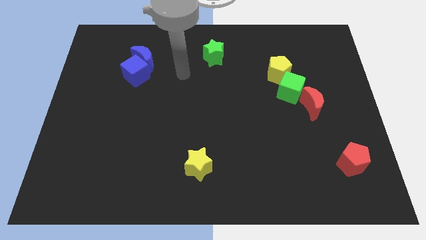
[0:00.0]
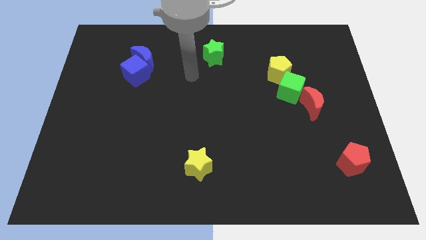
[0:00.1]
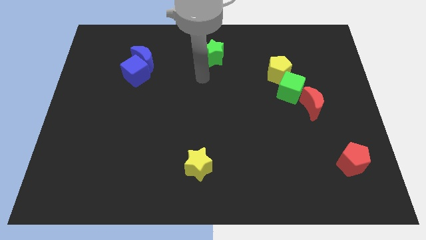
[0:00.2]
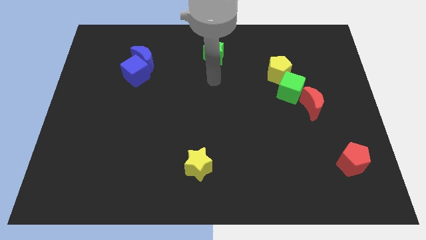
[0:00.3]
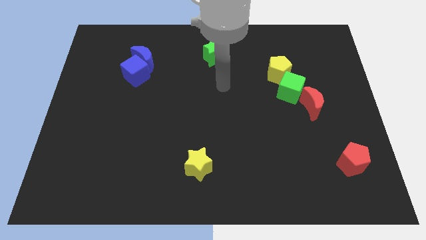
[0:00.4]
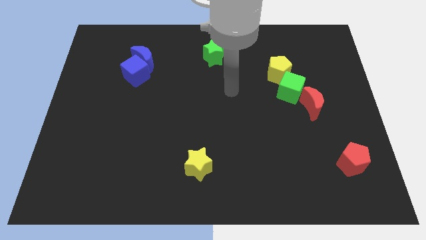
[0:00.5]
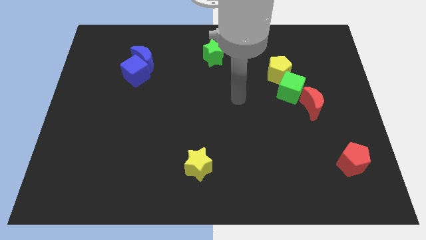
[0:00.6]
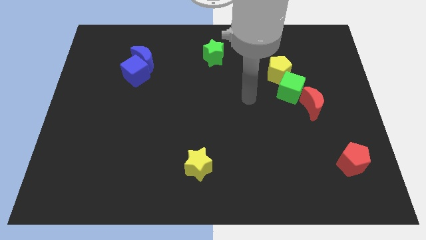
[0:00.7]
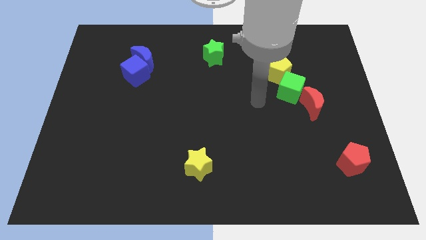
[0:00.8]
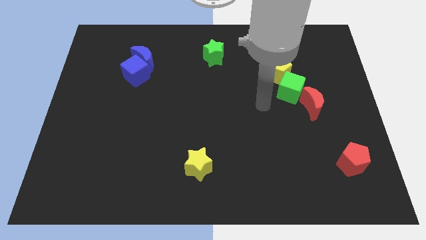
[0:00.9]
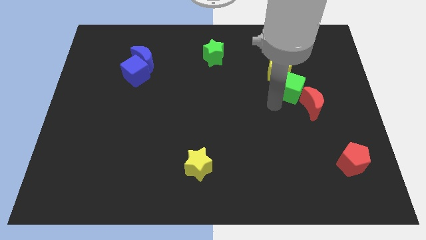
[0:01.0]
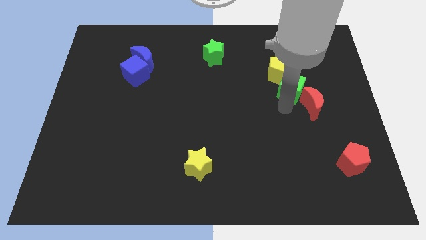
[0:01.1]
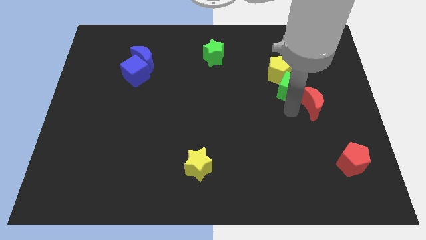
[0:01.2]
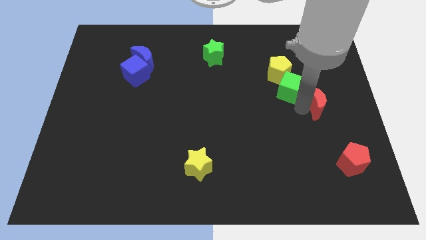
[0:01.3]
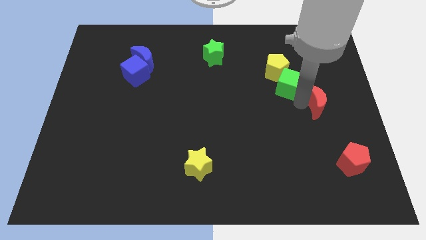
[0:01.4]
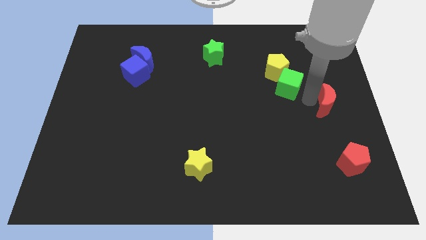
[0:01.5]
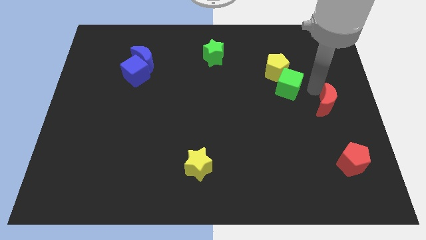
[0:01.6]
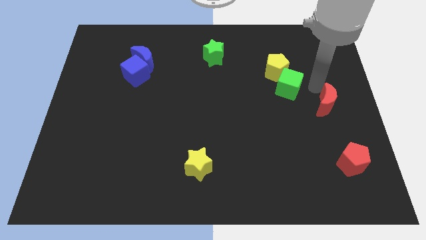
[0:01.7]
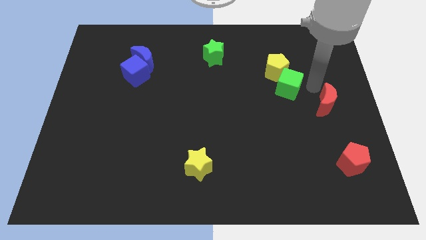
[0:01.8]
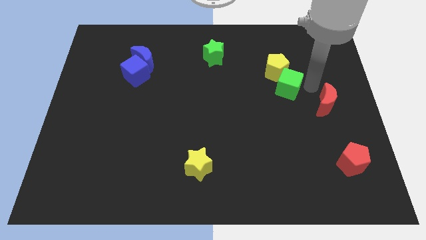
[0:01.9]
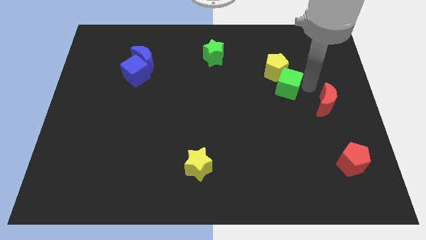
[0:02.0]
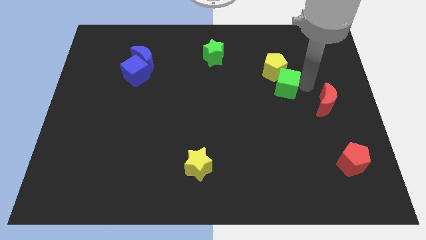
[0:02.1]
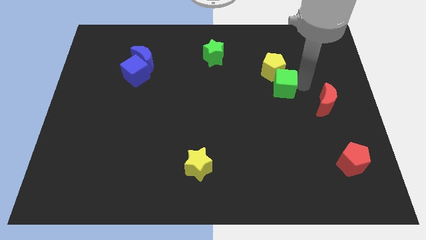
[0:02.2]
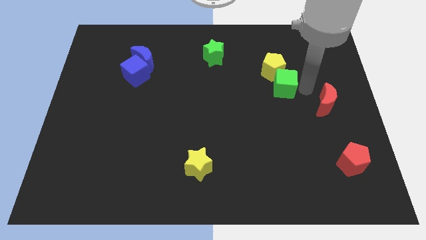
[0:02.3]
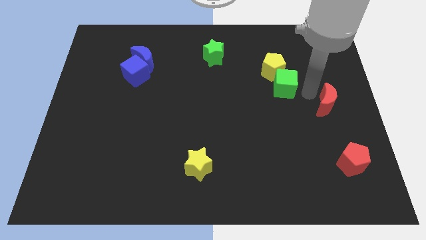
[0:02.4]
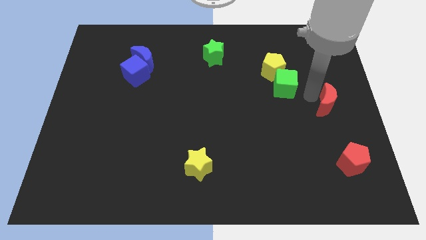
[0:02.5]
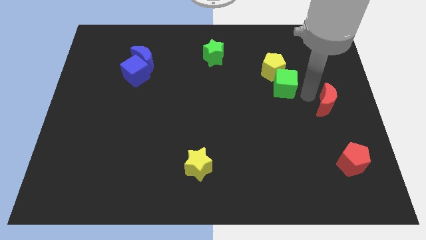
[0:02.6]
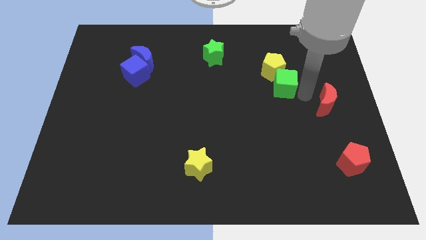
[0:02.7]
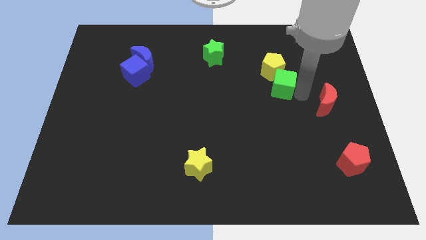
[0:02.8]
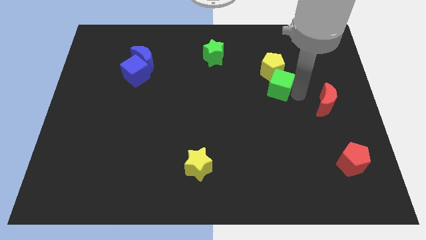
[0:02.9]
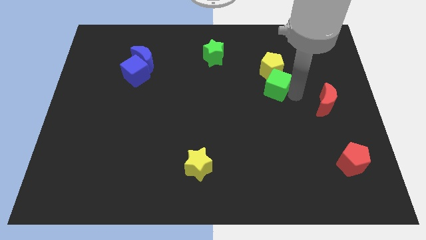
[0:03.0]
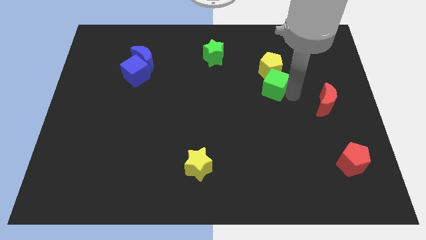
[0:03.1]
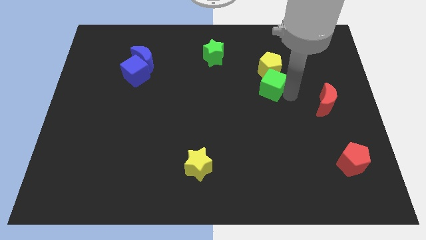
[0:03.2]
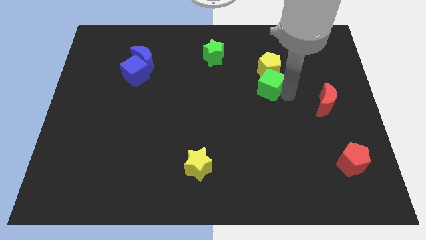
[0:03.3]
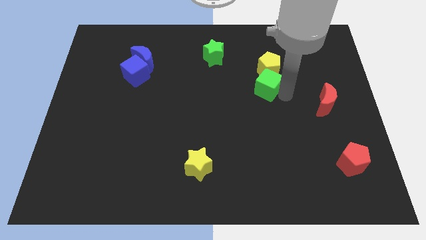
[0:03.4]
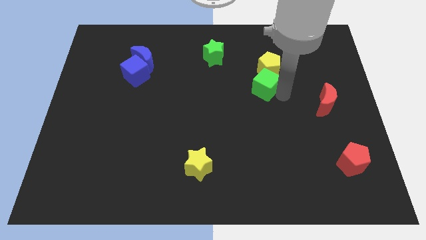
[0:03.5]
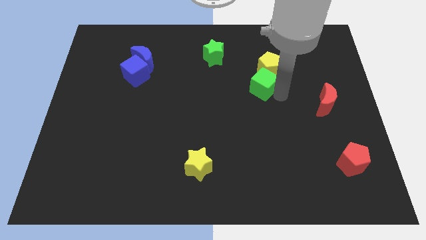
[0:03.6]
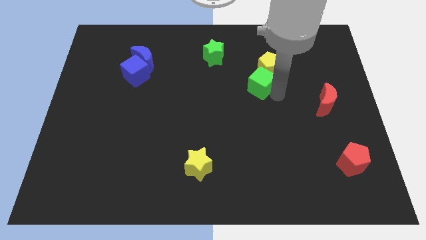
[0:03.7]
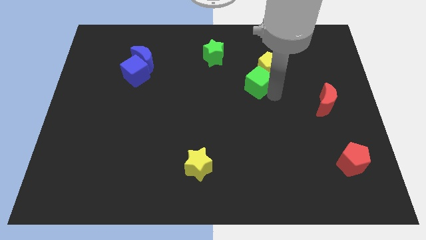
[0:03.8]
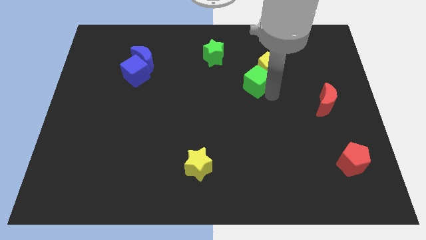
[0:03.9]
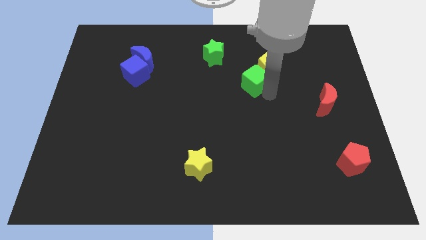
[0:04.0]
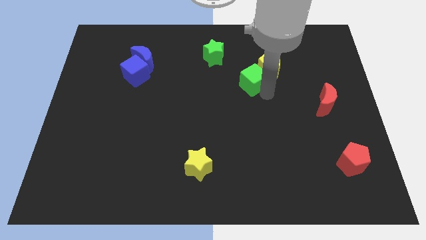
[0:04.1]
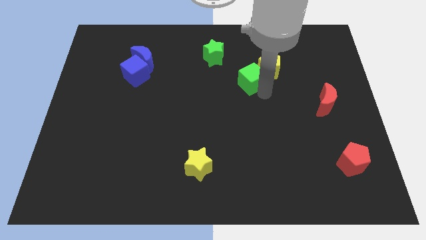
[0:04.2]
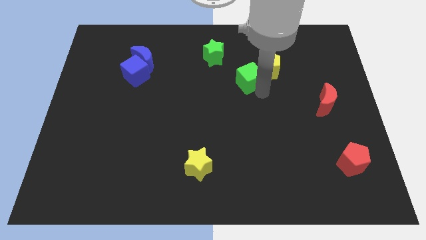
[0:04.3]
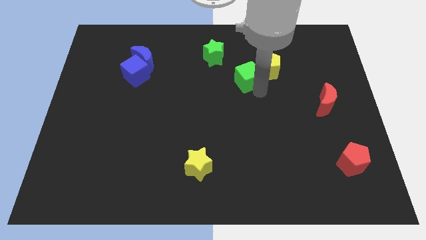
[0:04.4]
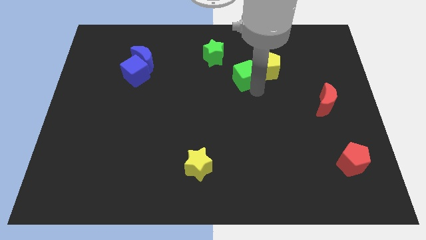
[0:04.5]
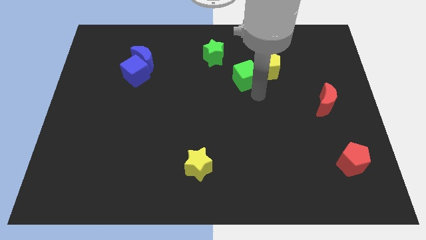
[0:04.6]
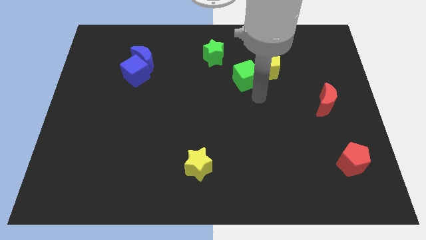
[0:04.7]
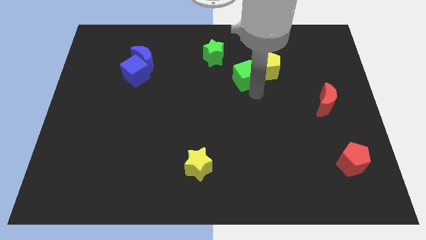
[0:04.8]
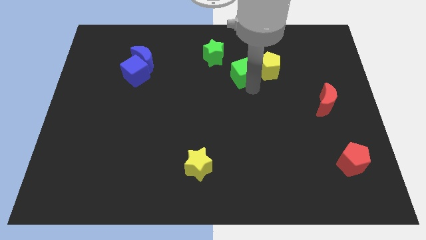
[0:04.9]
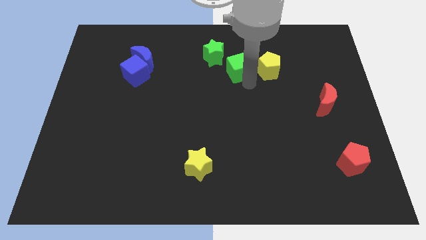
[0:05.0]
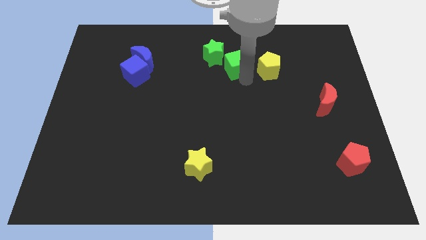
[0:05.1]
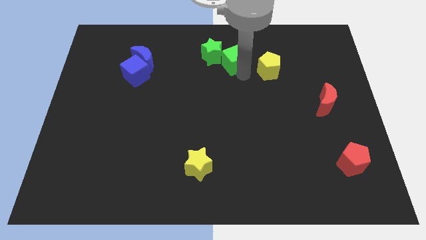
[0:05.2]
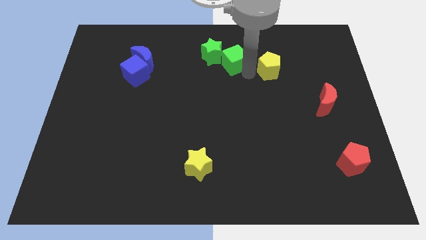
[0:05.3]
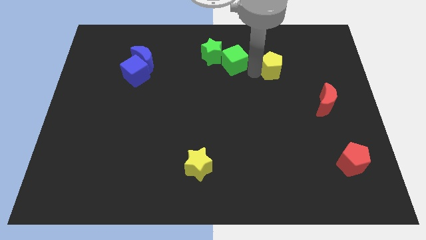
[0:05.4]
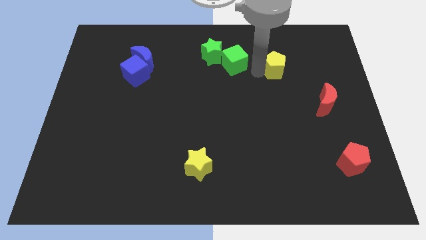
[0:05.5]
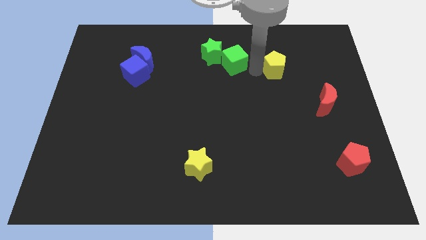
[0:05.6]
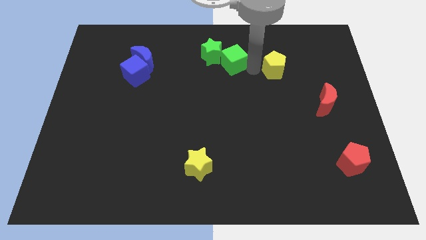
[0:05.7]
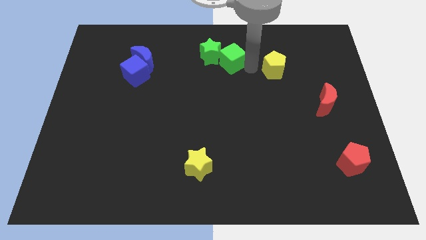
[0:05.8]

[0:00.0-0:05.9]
slide the green cube close to the green star

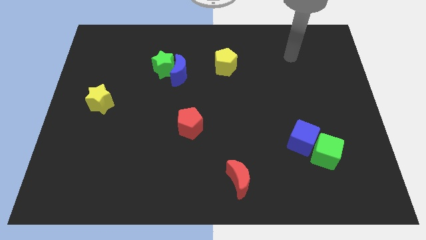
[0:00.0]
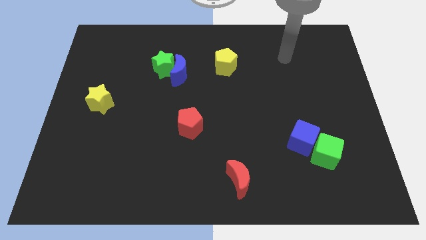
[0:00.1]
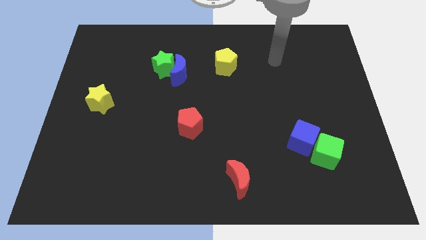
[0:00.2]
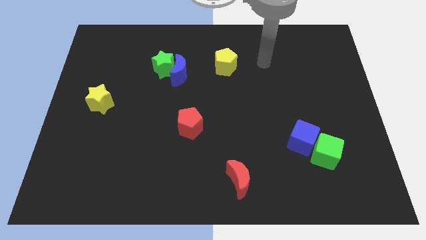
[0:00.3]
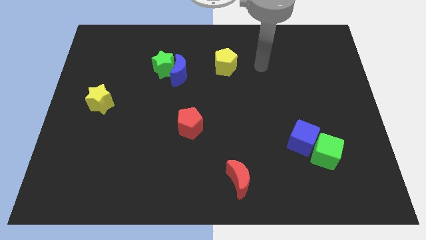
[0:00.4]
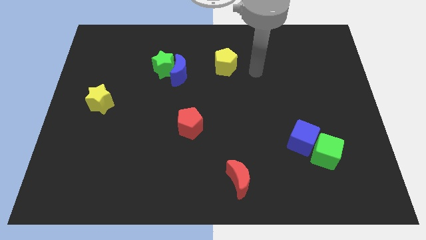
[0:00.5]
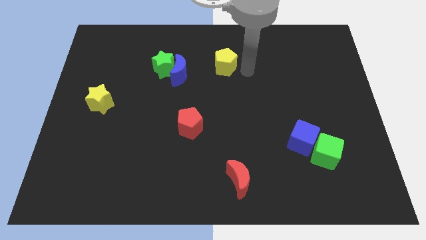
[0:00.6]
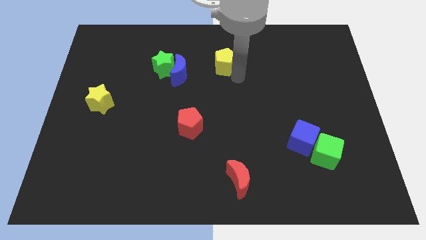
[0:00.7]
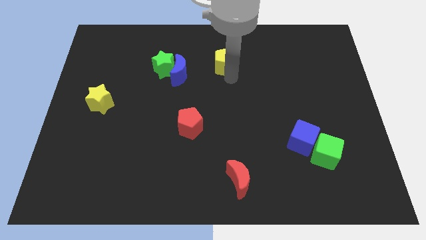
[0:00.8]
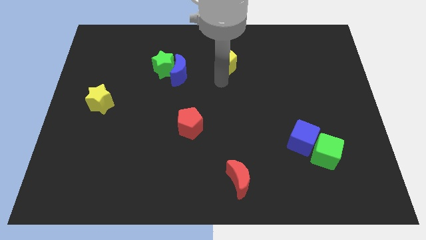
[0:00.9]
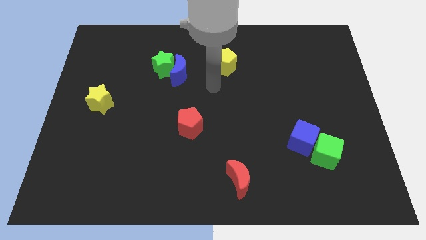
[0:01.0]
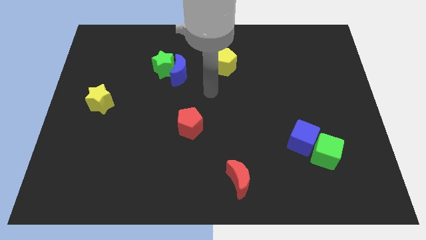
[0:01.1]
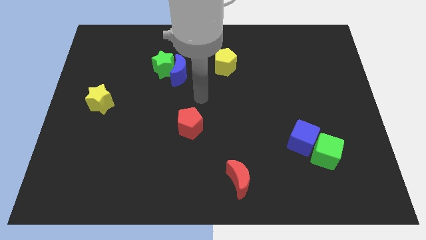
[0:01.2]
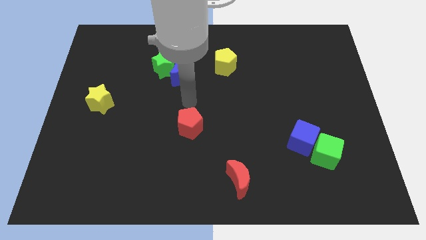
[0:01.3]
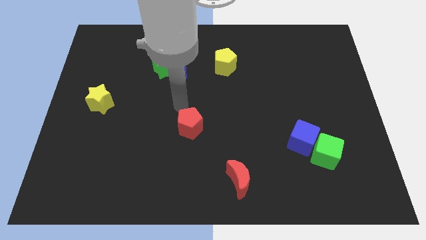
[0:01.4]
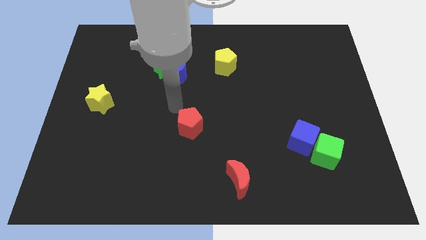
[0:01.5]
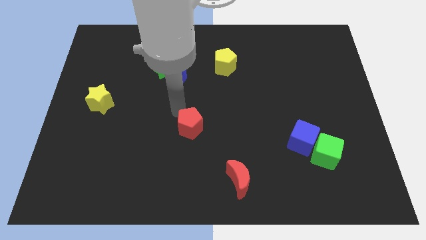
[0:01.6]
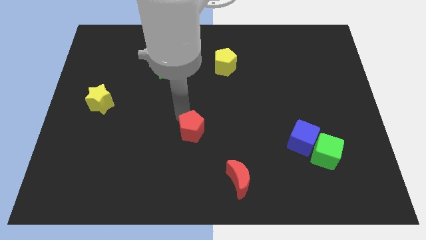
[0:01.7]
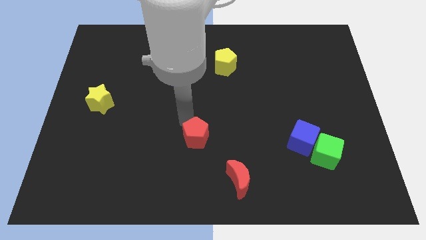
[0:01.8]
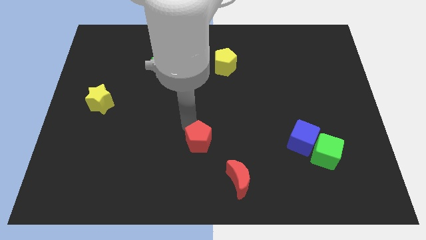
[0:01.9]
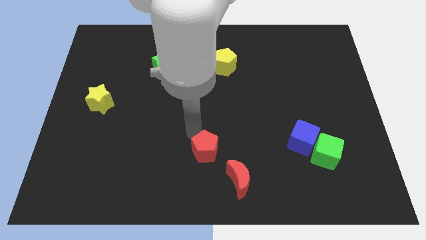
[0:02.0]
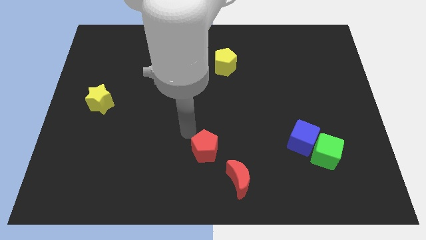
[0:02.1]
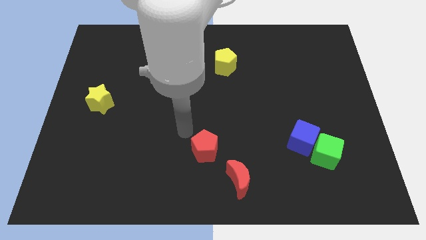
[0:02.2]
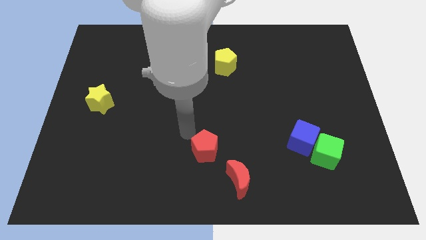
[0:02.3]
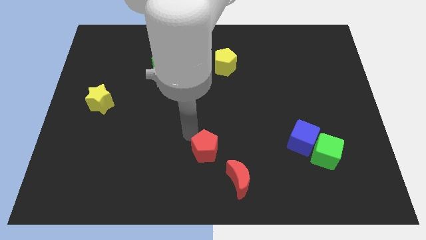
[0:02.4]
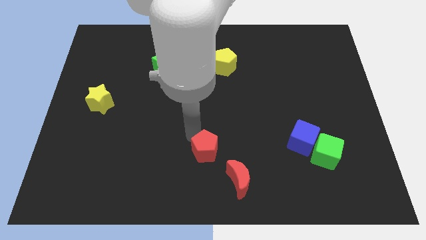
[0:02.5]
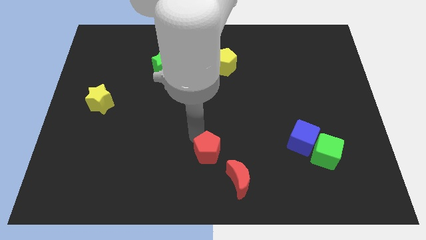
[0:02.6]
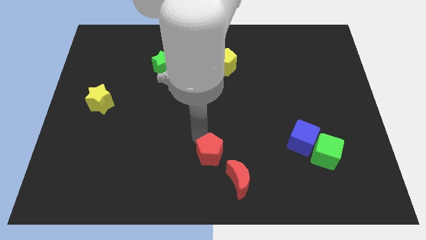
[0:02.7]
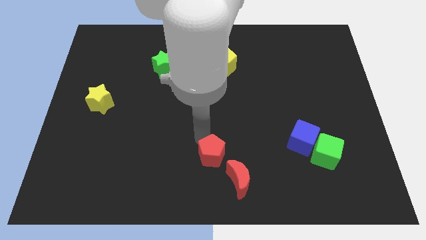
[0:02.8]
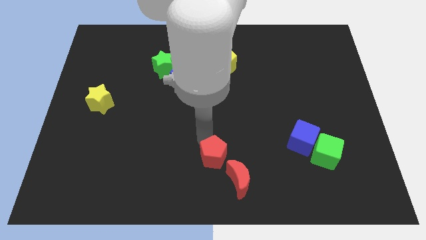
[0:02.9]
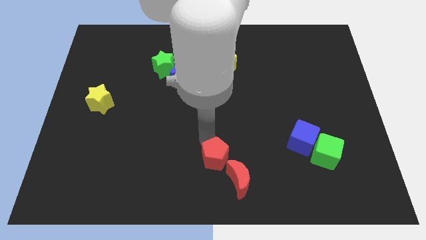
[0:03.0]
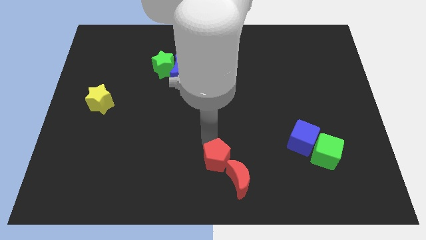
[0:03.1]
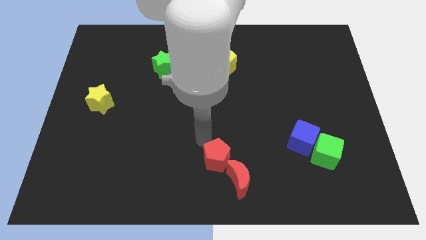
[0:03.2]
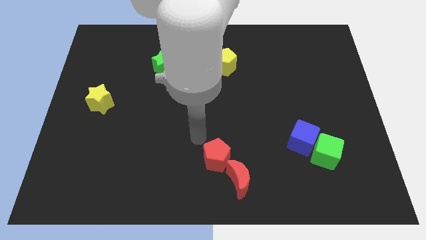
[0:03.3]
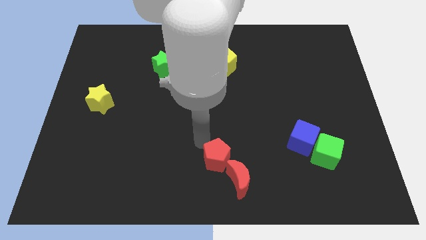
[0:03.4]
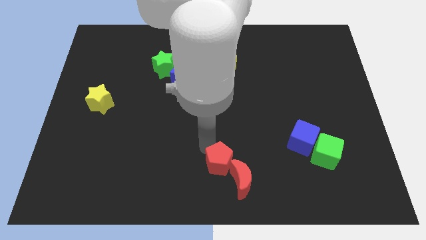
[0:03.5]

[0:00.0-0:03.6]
move the red pentagon towards the red moon
